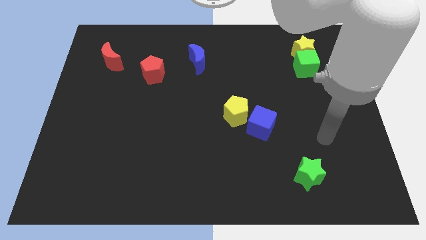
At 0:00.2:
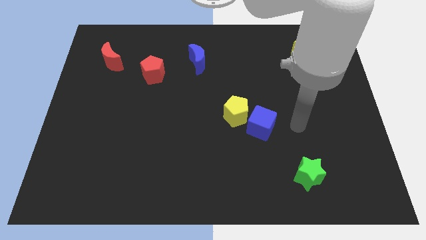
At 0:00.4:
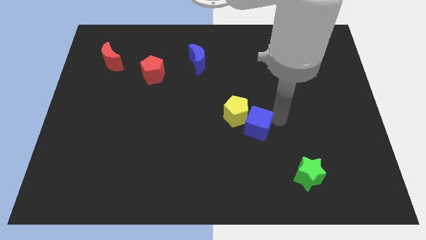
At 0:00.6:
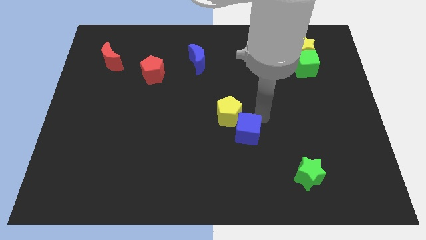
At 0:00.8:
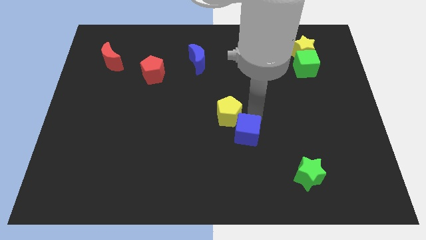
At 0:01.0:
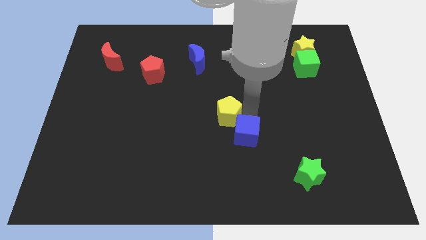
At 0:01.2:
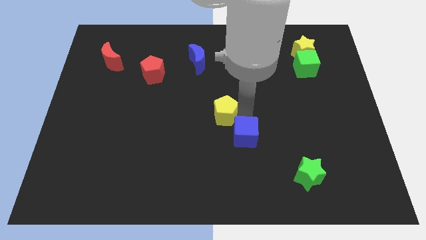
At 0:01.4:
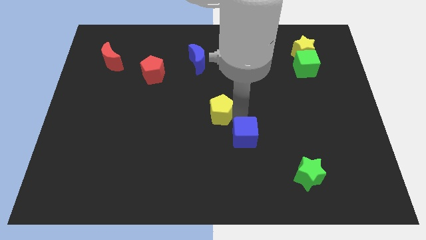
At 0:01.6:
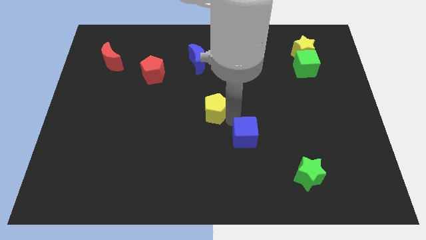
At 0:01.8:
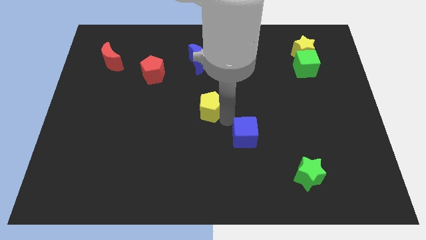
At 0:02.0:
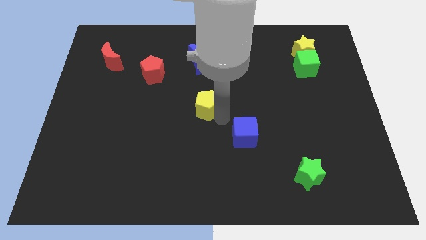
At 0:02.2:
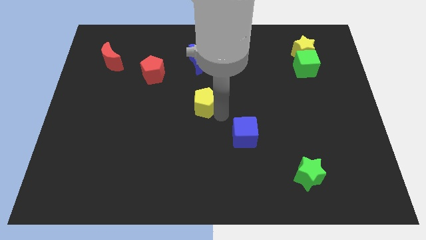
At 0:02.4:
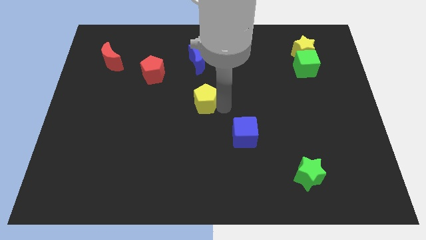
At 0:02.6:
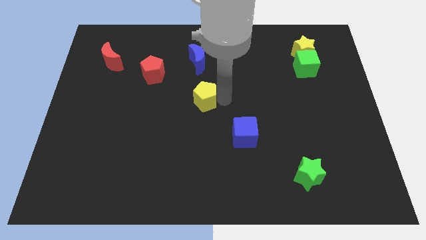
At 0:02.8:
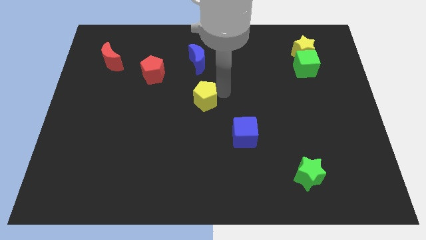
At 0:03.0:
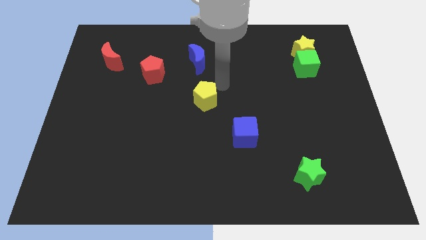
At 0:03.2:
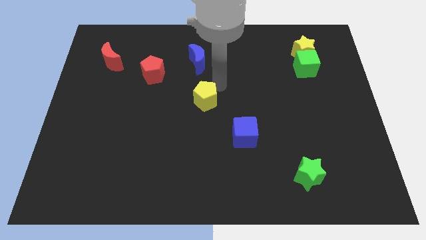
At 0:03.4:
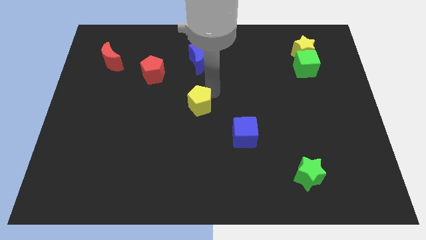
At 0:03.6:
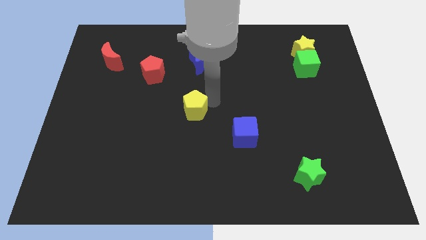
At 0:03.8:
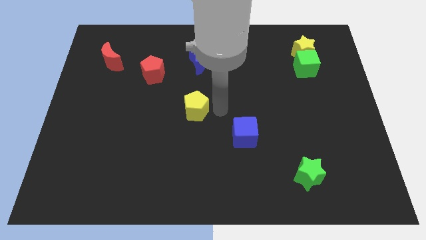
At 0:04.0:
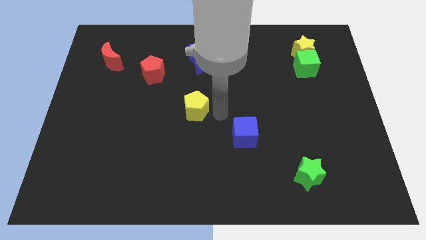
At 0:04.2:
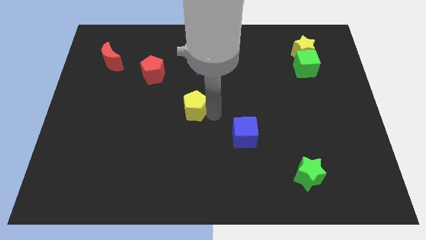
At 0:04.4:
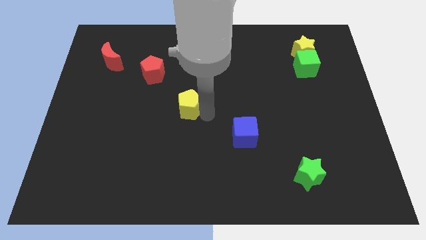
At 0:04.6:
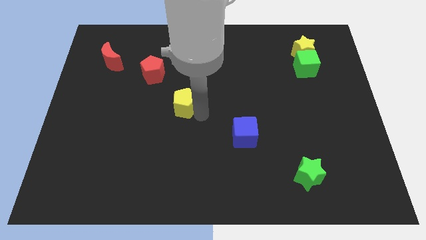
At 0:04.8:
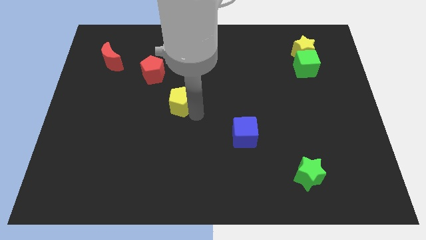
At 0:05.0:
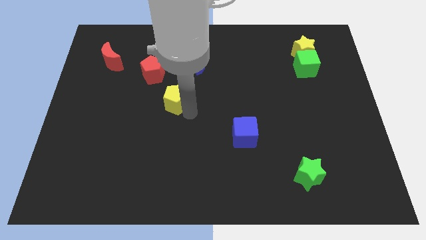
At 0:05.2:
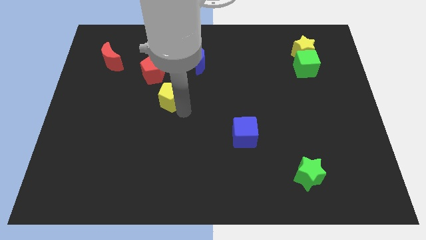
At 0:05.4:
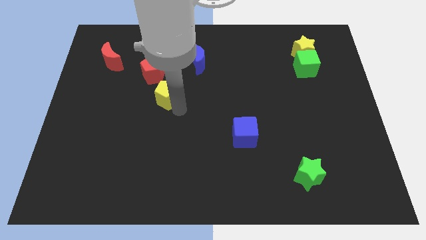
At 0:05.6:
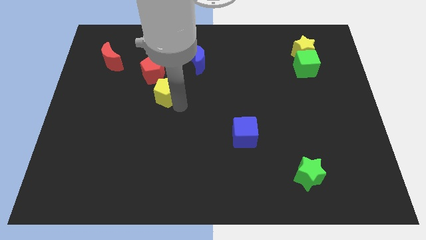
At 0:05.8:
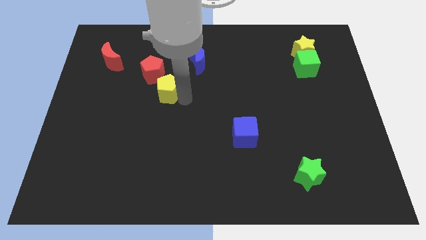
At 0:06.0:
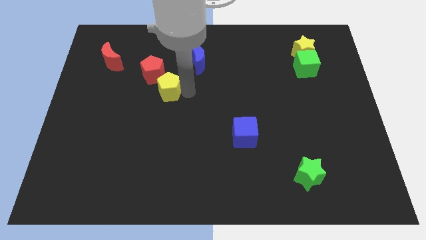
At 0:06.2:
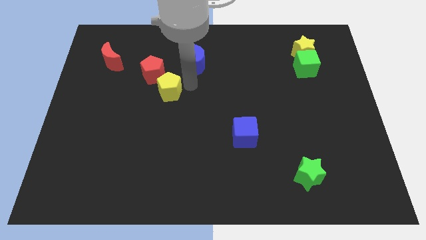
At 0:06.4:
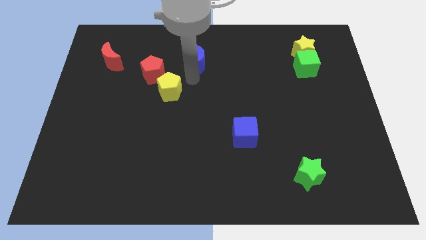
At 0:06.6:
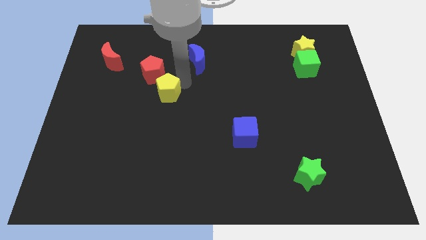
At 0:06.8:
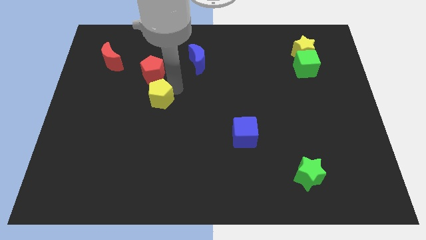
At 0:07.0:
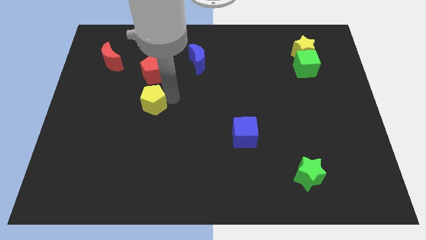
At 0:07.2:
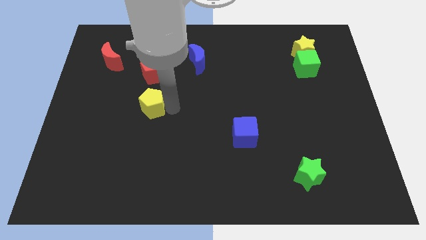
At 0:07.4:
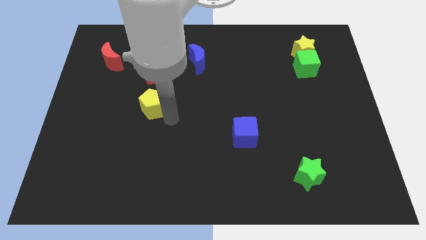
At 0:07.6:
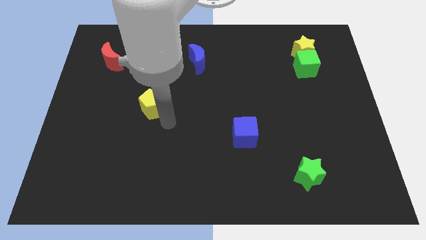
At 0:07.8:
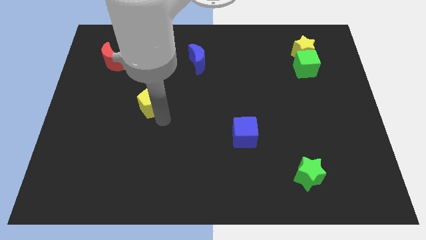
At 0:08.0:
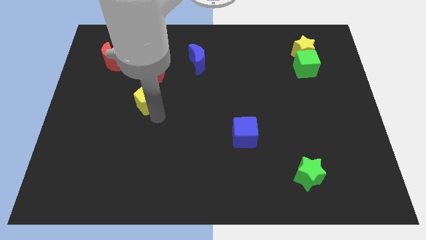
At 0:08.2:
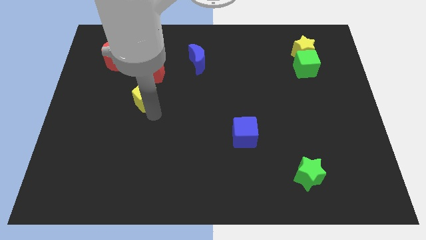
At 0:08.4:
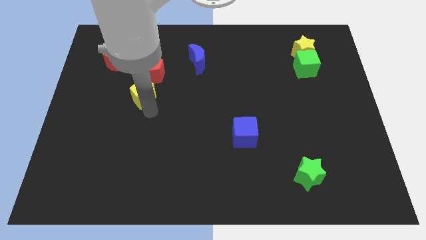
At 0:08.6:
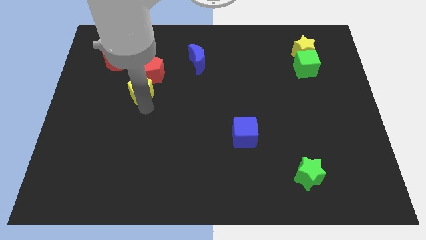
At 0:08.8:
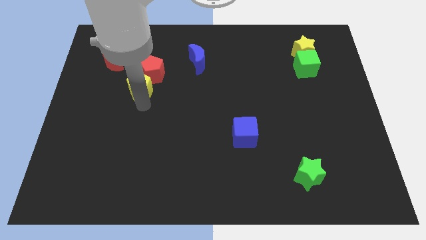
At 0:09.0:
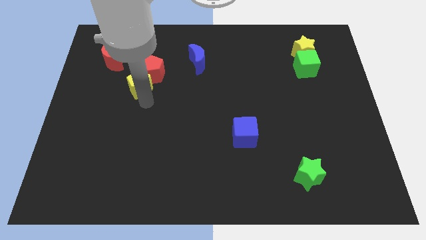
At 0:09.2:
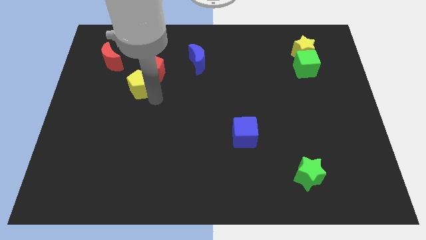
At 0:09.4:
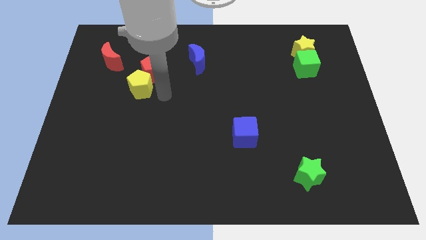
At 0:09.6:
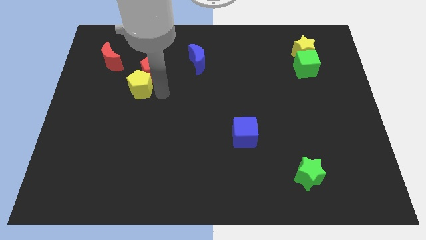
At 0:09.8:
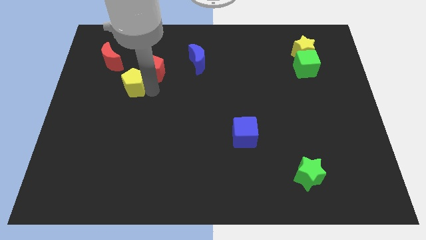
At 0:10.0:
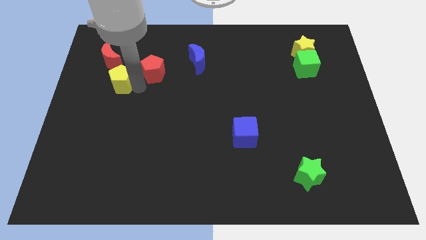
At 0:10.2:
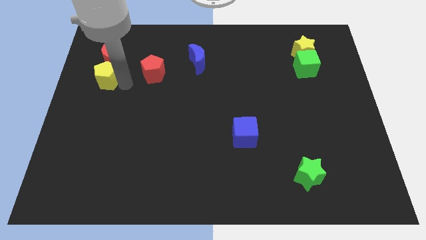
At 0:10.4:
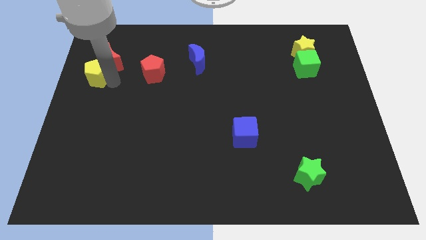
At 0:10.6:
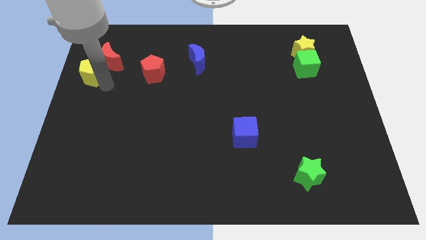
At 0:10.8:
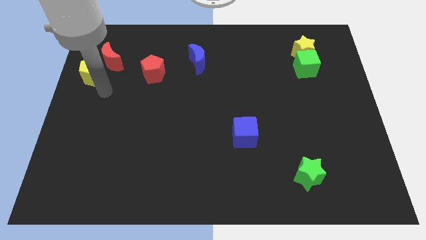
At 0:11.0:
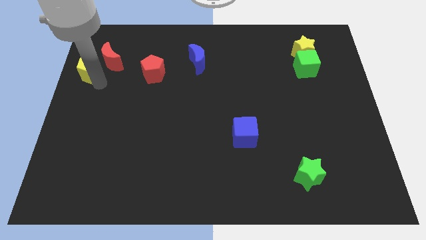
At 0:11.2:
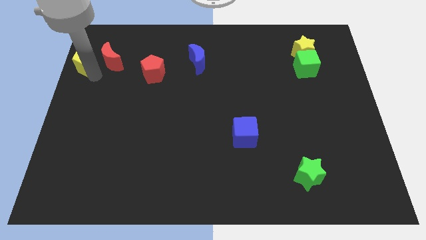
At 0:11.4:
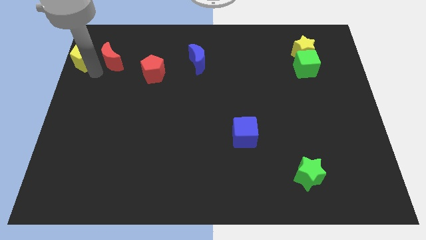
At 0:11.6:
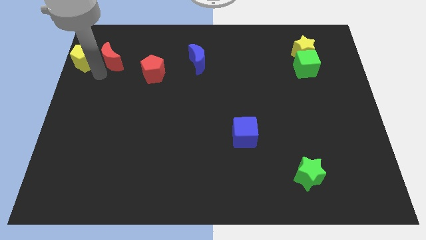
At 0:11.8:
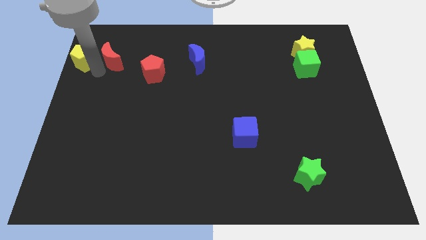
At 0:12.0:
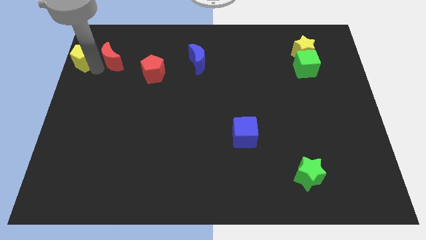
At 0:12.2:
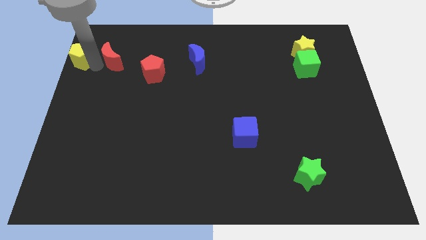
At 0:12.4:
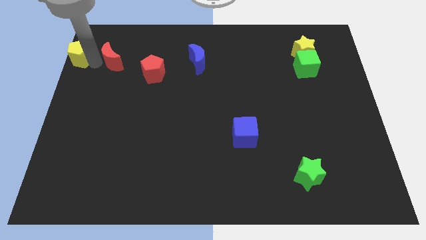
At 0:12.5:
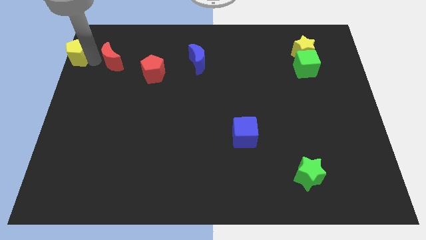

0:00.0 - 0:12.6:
move the yellow pentagon to the upper left corner

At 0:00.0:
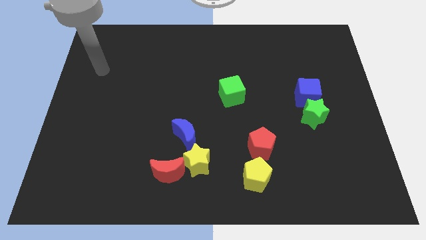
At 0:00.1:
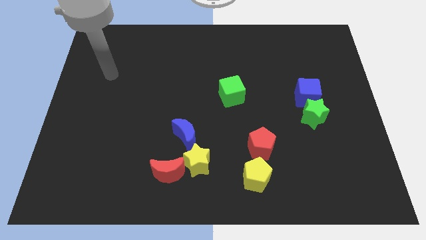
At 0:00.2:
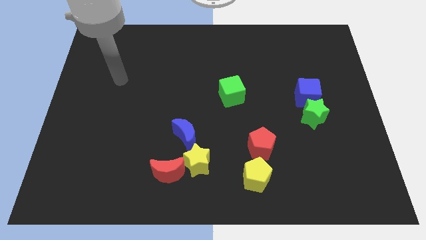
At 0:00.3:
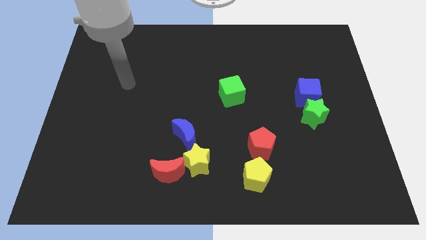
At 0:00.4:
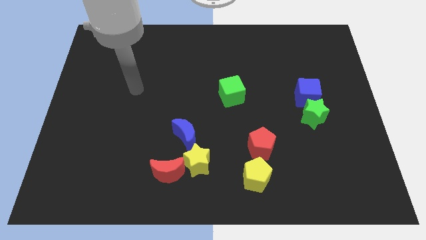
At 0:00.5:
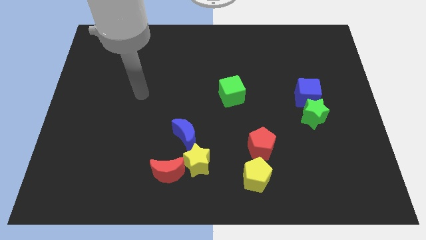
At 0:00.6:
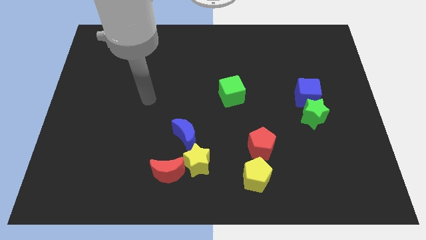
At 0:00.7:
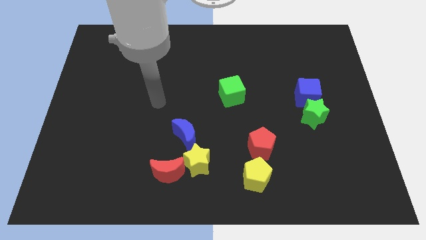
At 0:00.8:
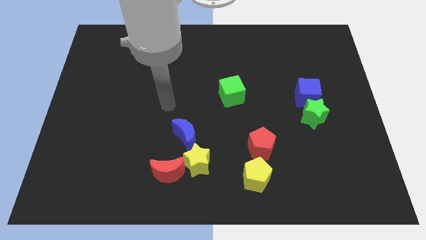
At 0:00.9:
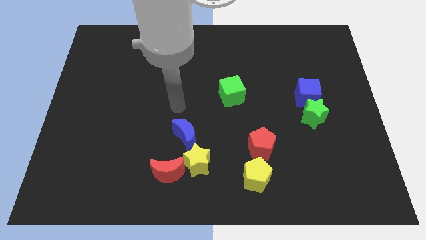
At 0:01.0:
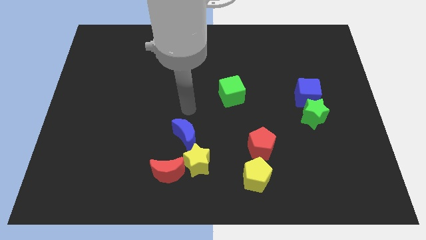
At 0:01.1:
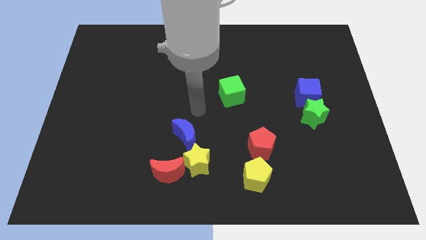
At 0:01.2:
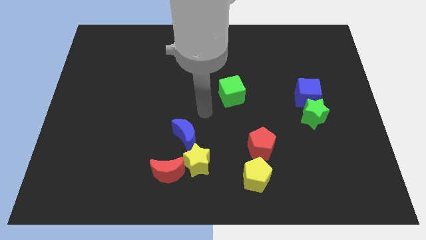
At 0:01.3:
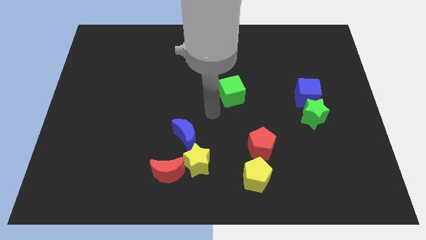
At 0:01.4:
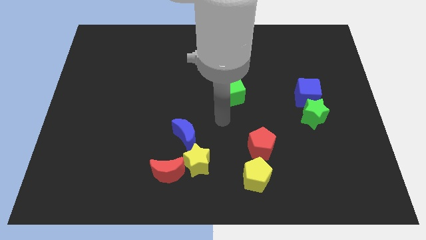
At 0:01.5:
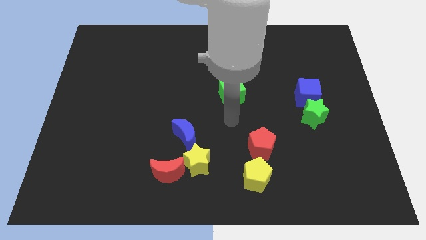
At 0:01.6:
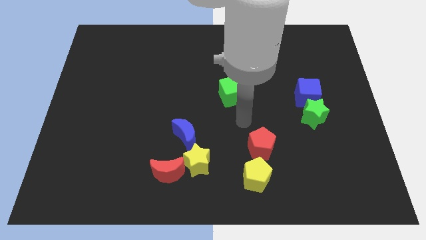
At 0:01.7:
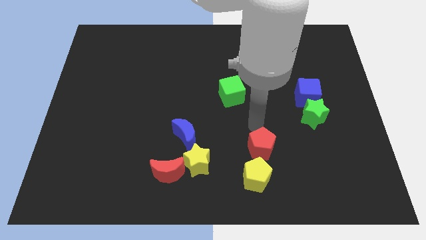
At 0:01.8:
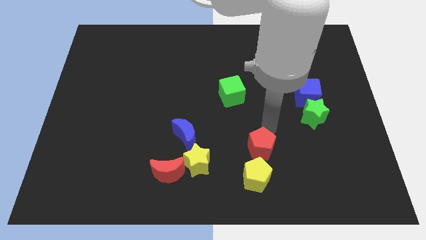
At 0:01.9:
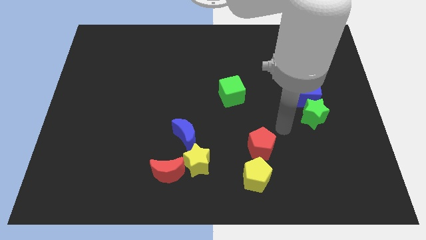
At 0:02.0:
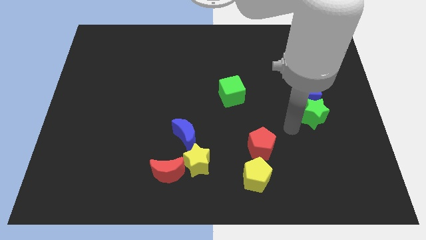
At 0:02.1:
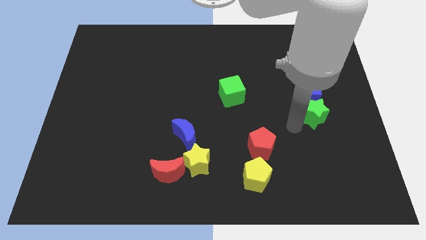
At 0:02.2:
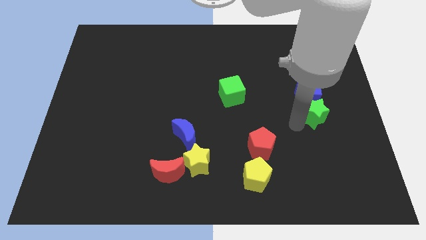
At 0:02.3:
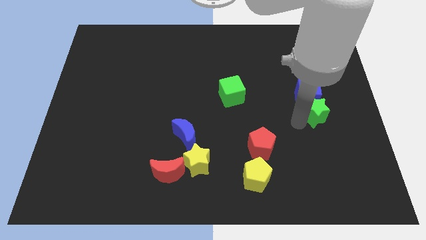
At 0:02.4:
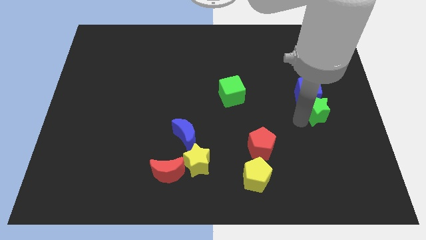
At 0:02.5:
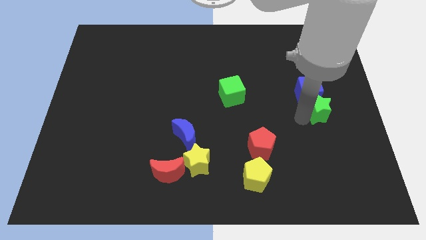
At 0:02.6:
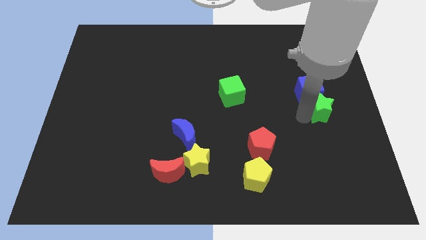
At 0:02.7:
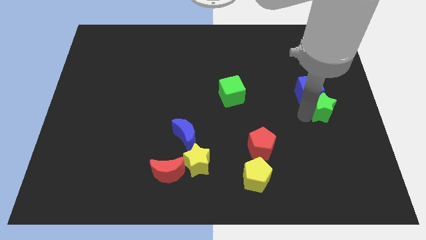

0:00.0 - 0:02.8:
move the green star to the right side of the board
